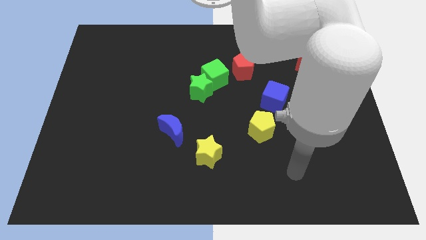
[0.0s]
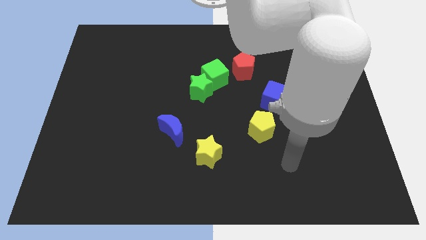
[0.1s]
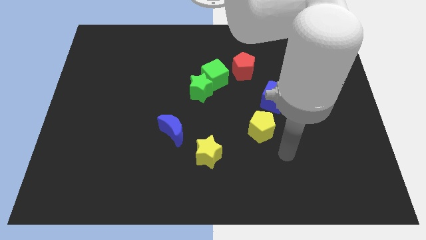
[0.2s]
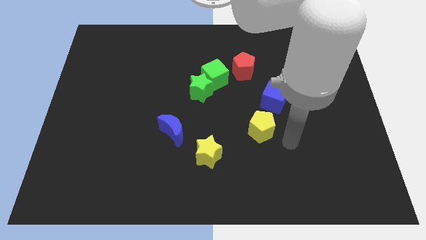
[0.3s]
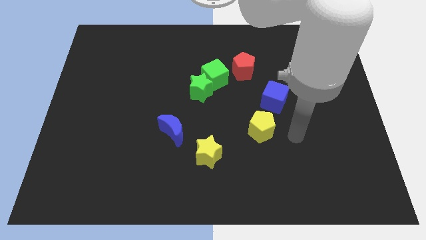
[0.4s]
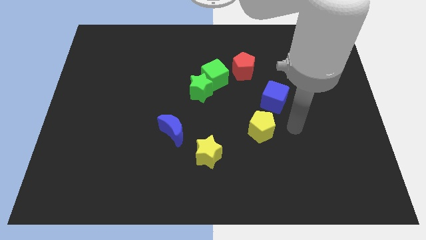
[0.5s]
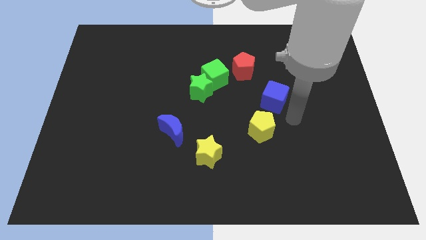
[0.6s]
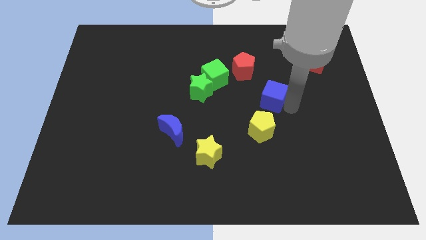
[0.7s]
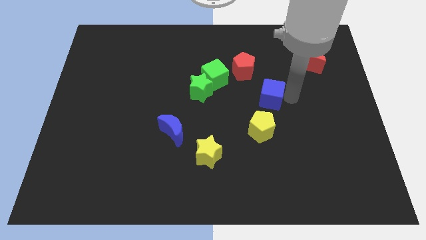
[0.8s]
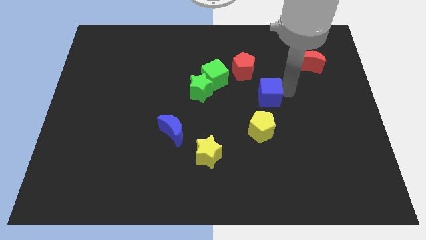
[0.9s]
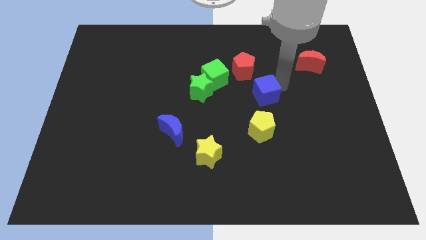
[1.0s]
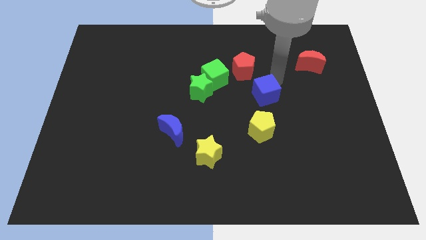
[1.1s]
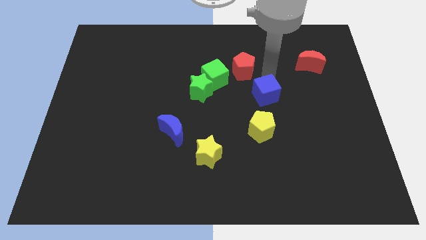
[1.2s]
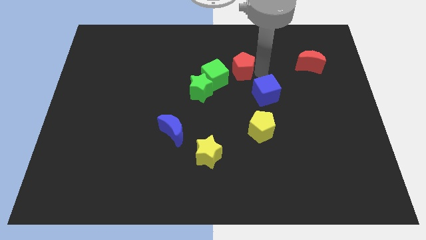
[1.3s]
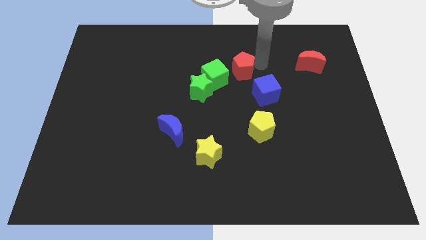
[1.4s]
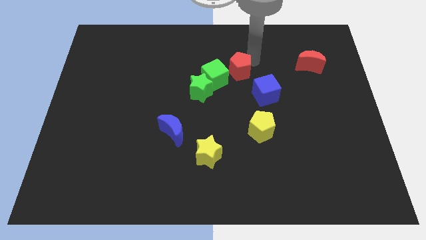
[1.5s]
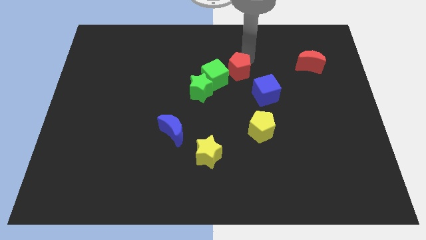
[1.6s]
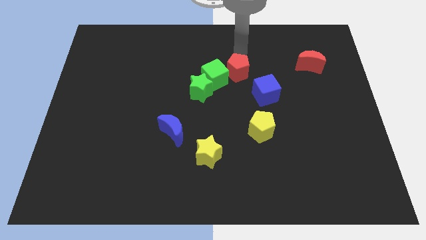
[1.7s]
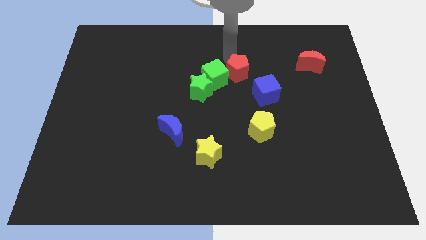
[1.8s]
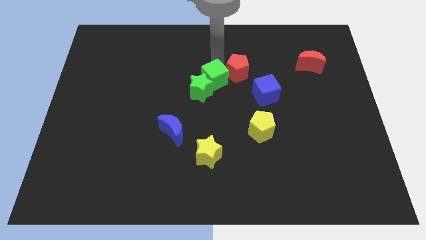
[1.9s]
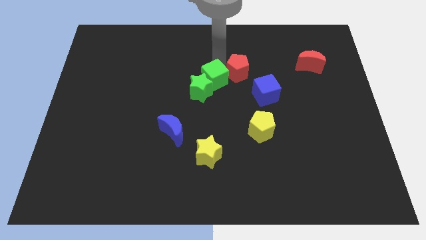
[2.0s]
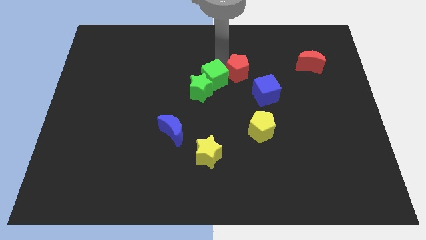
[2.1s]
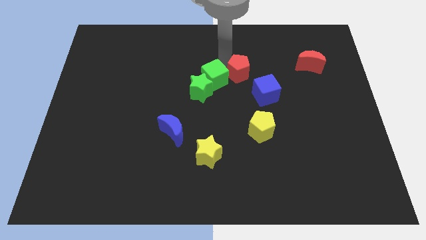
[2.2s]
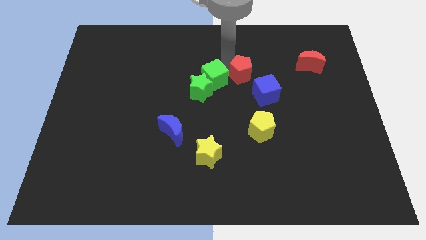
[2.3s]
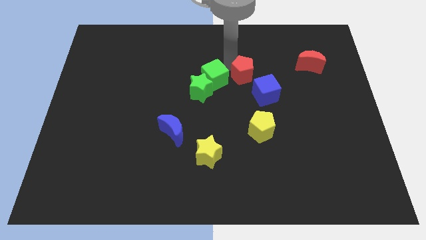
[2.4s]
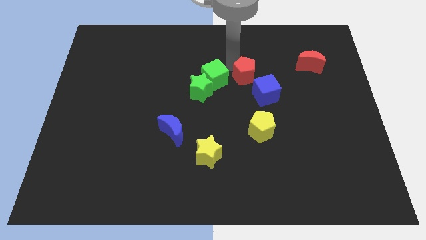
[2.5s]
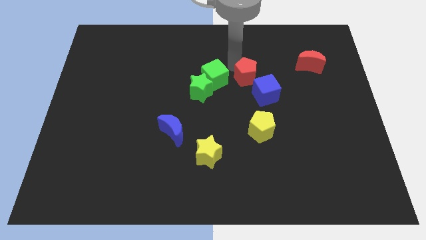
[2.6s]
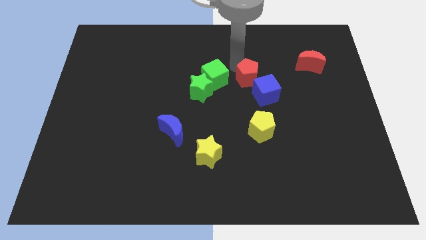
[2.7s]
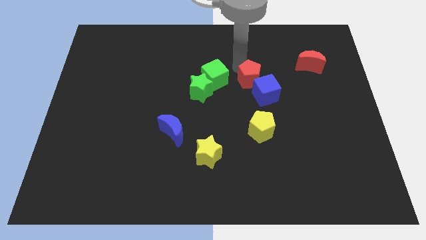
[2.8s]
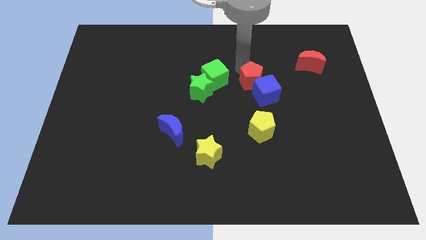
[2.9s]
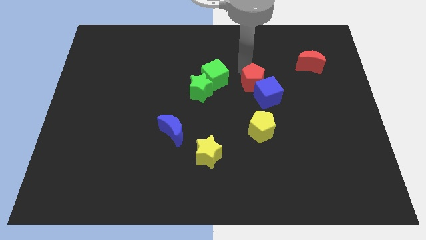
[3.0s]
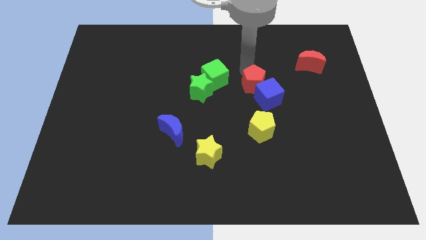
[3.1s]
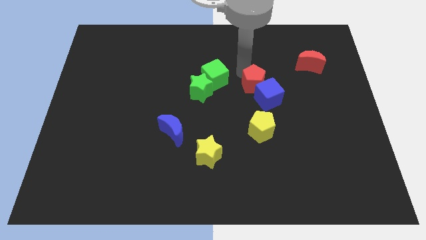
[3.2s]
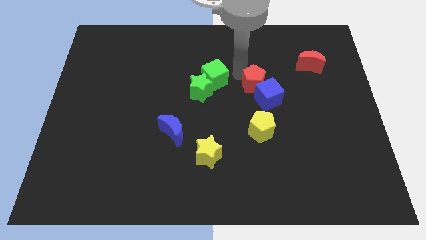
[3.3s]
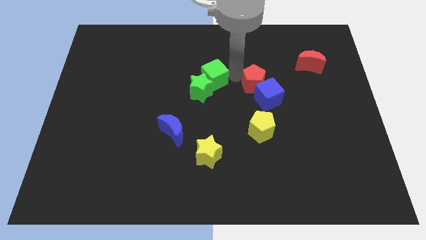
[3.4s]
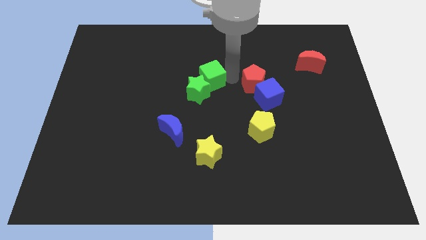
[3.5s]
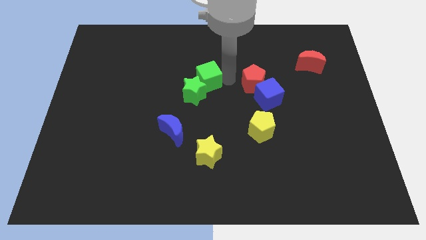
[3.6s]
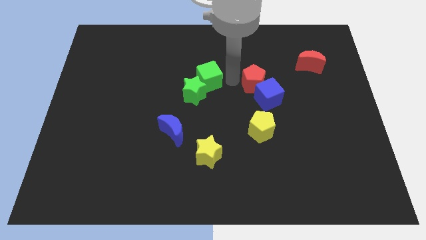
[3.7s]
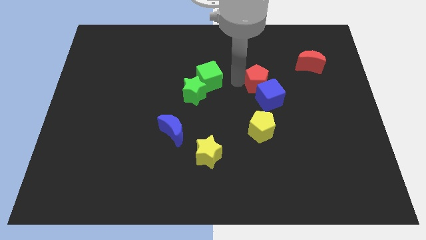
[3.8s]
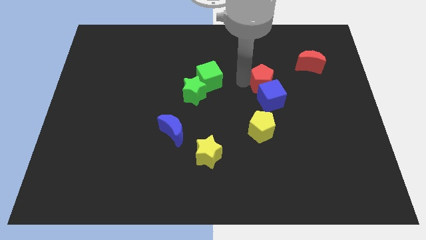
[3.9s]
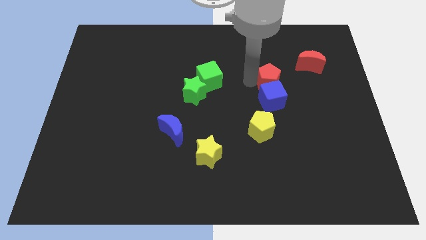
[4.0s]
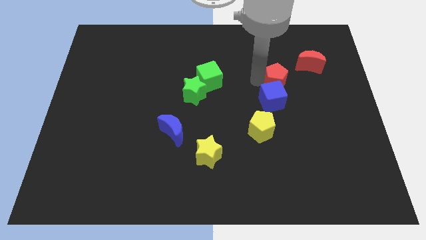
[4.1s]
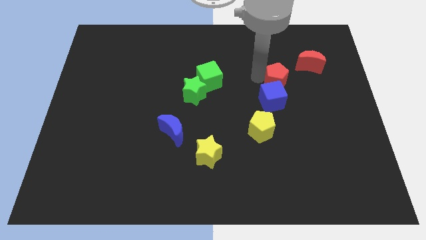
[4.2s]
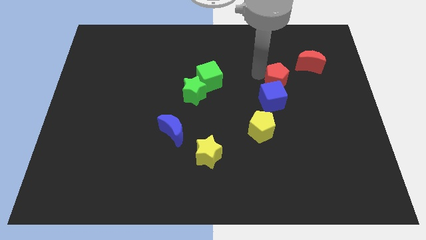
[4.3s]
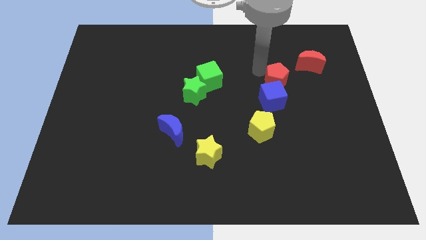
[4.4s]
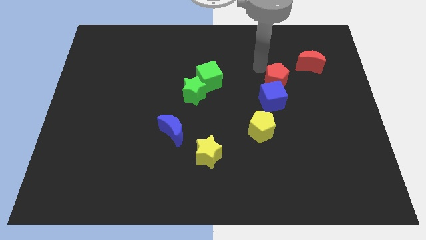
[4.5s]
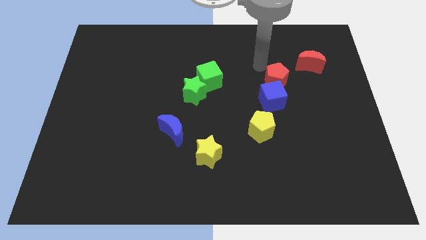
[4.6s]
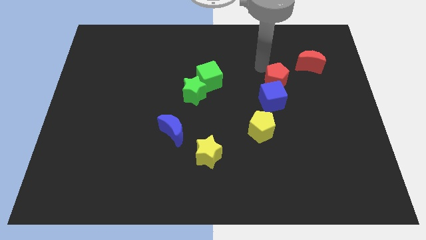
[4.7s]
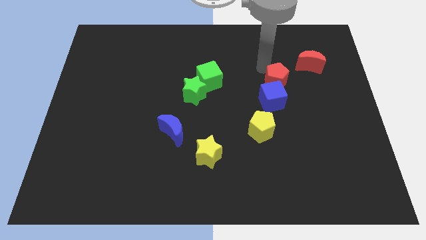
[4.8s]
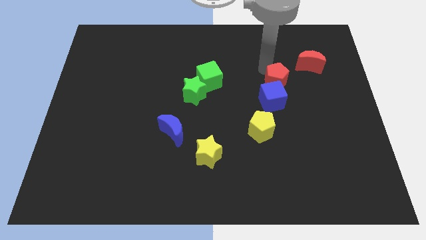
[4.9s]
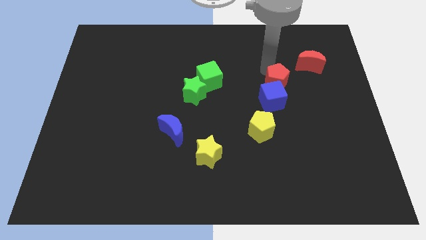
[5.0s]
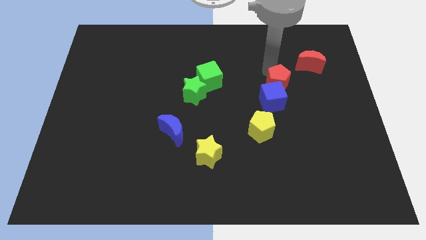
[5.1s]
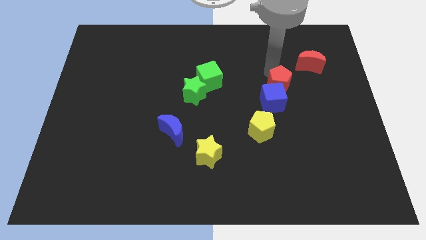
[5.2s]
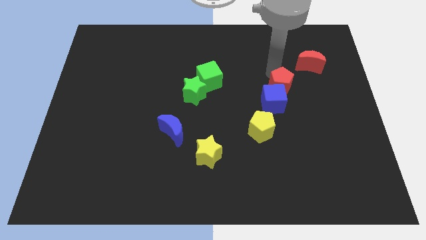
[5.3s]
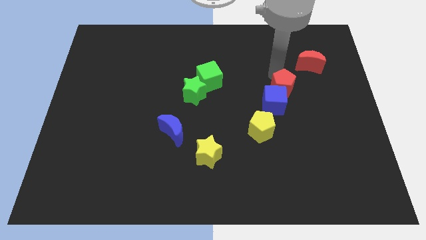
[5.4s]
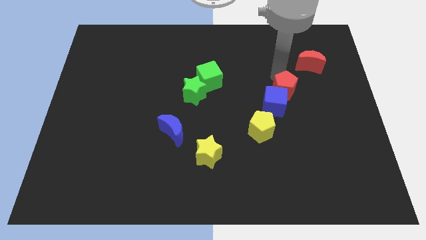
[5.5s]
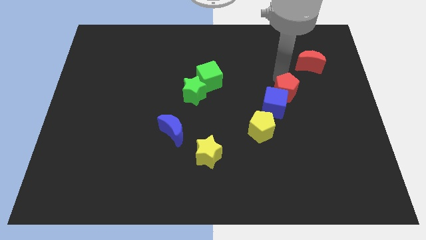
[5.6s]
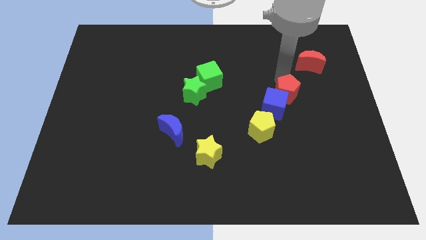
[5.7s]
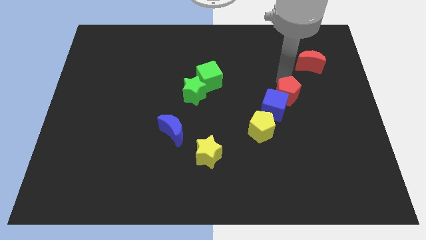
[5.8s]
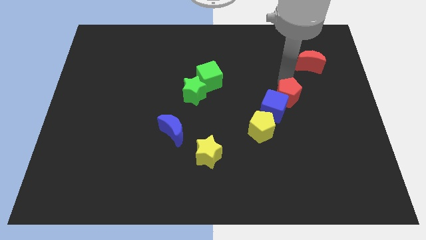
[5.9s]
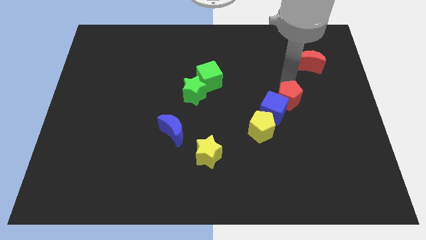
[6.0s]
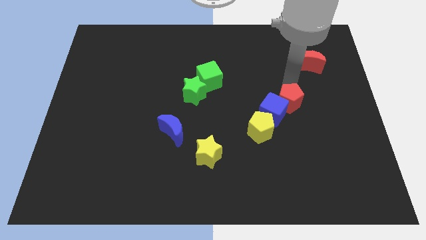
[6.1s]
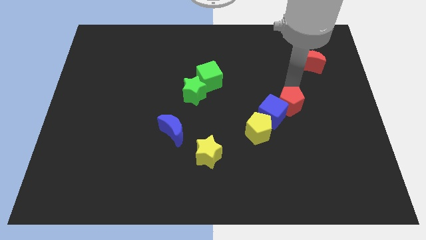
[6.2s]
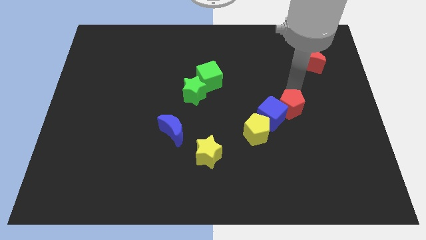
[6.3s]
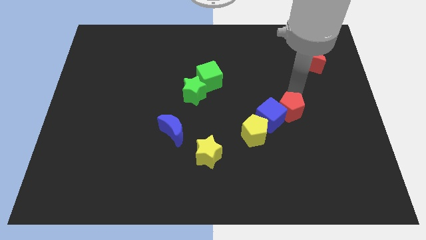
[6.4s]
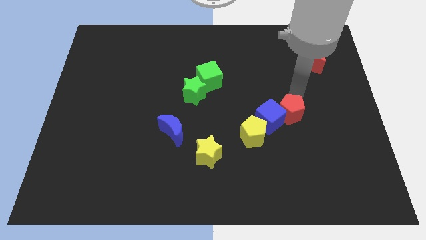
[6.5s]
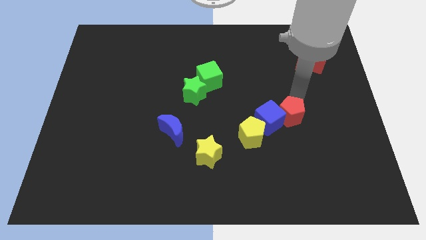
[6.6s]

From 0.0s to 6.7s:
move the red pentagon to the bottom right of the blue cube

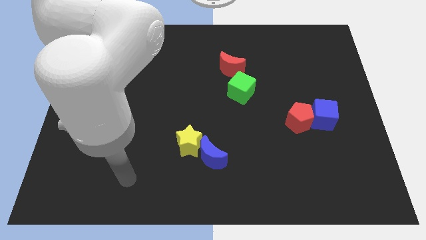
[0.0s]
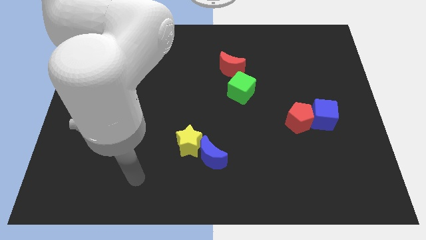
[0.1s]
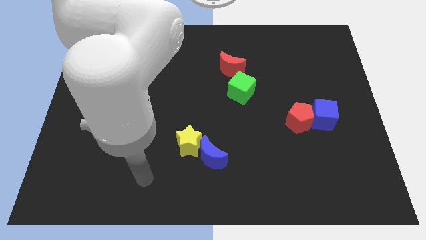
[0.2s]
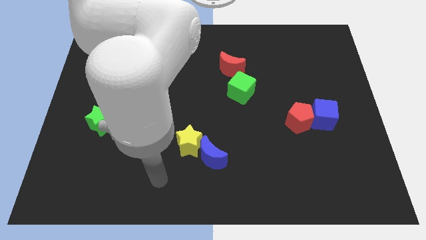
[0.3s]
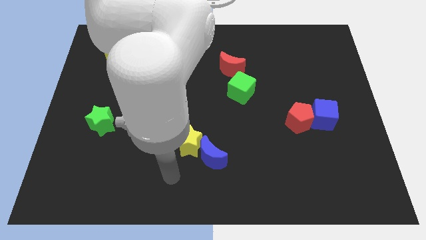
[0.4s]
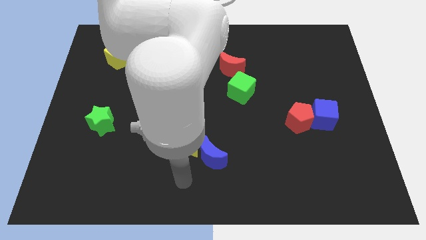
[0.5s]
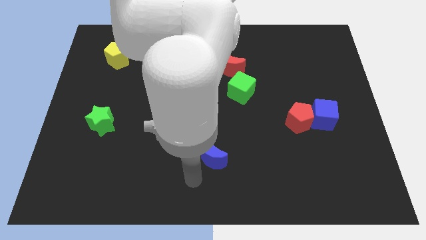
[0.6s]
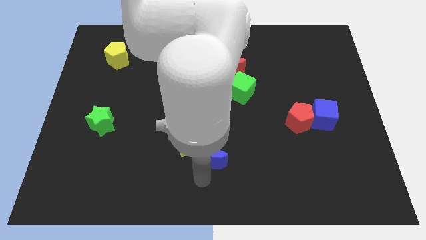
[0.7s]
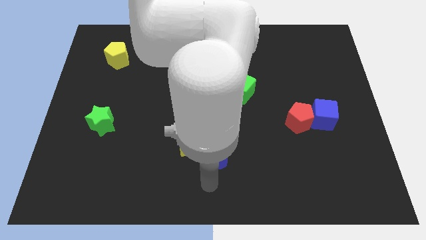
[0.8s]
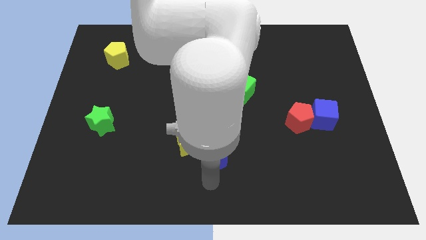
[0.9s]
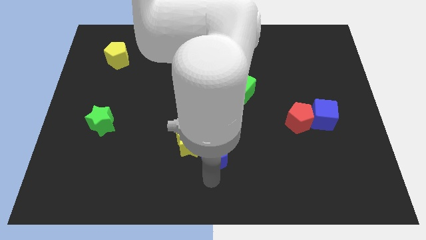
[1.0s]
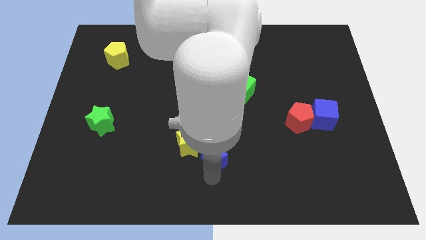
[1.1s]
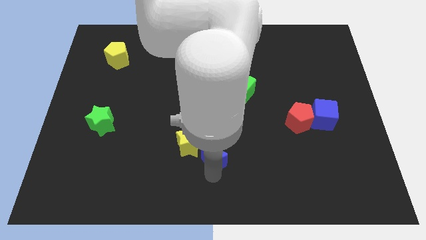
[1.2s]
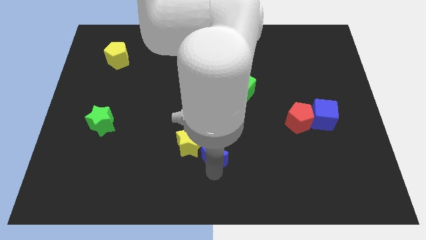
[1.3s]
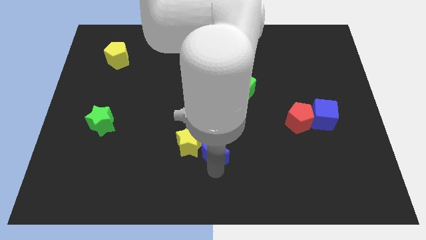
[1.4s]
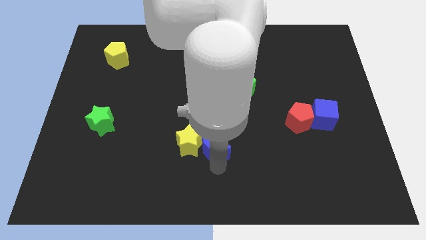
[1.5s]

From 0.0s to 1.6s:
move the blue moon to the top right of the yellow star
